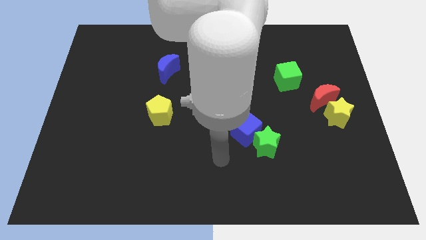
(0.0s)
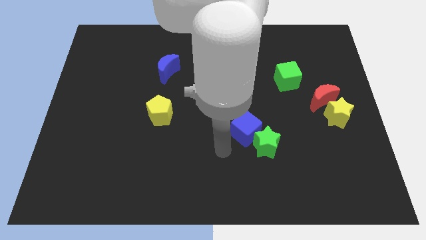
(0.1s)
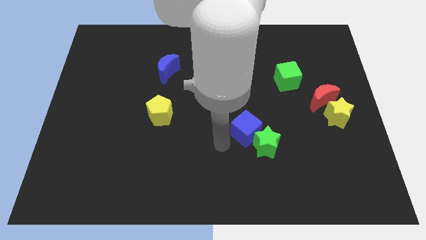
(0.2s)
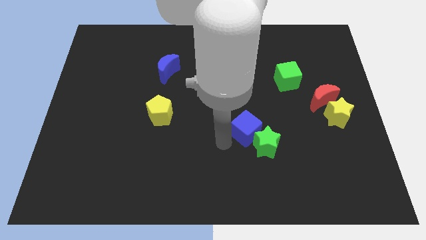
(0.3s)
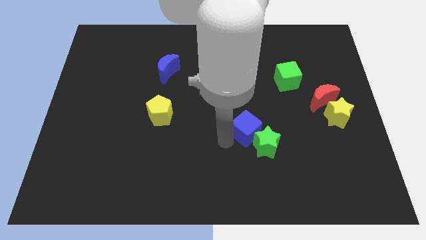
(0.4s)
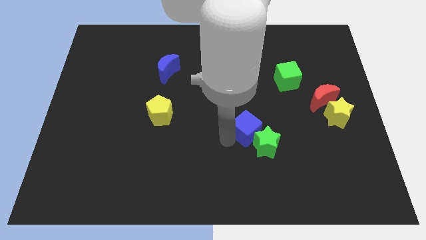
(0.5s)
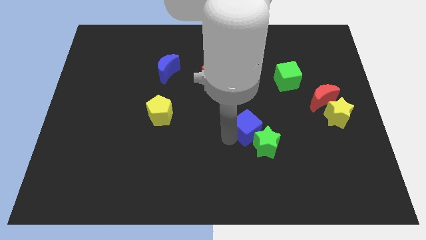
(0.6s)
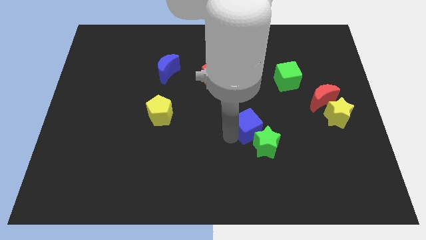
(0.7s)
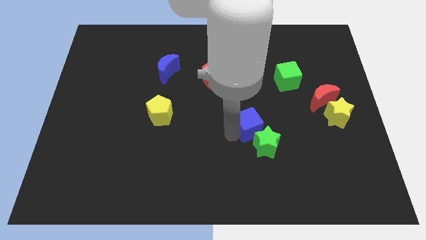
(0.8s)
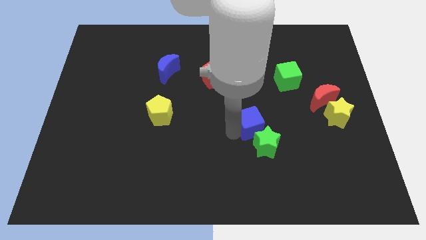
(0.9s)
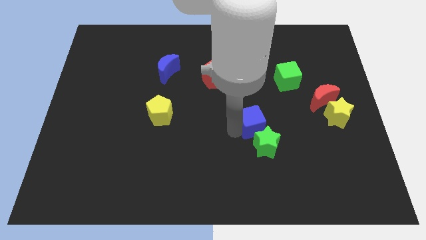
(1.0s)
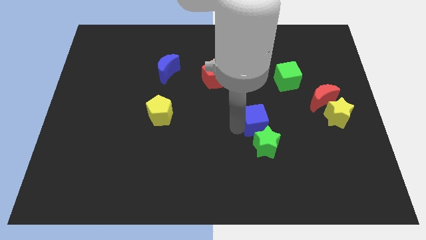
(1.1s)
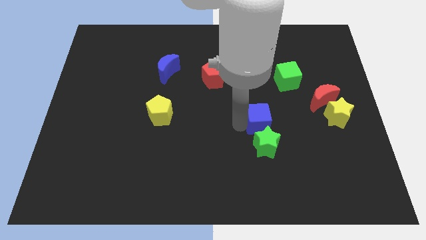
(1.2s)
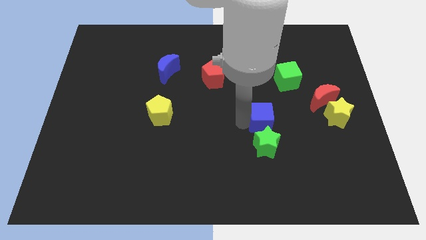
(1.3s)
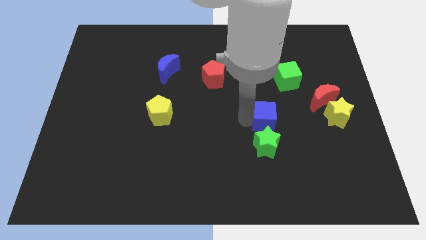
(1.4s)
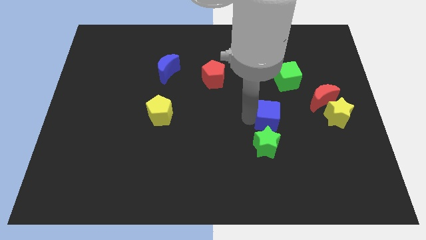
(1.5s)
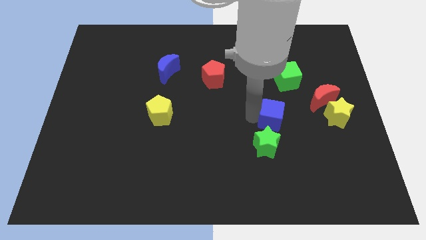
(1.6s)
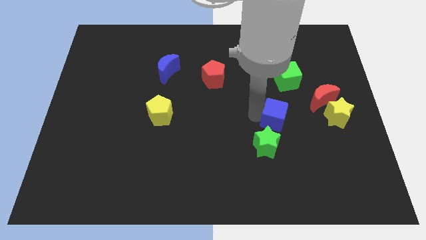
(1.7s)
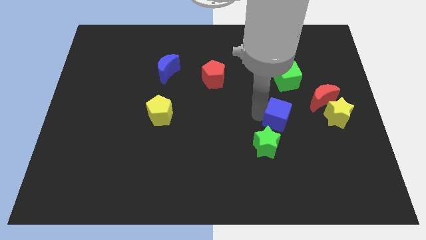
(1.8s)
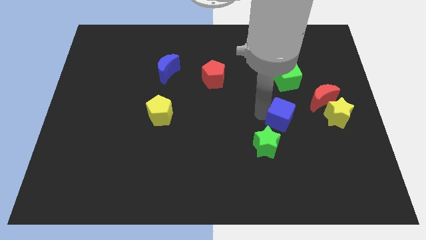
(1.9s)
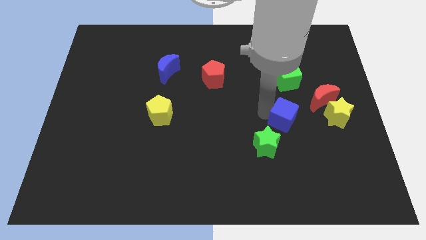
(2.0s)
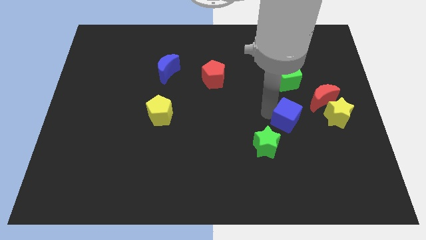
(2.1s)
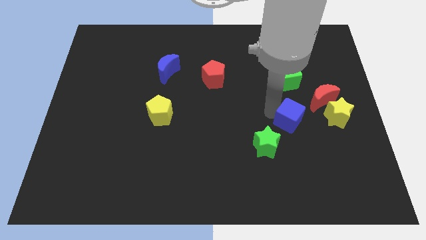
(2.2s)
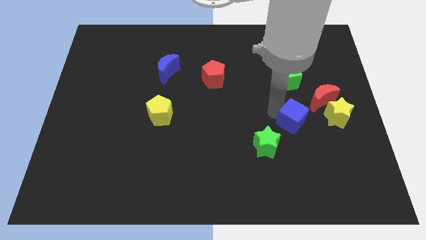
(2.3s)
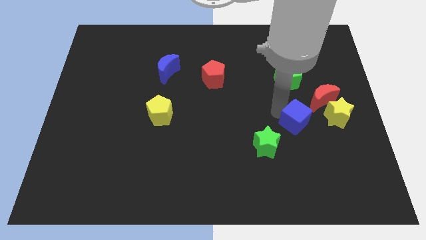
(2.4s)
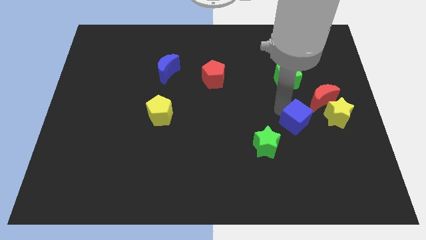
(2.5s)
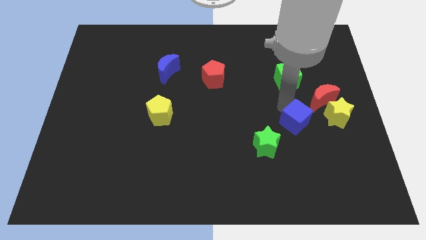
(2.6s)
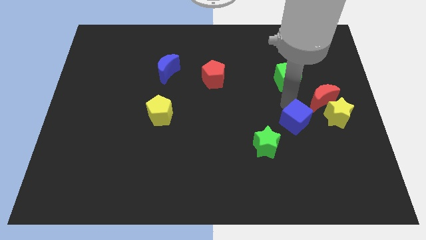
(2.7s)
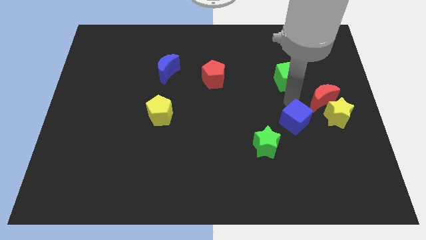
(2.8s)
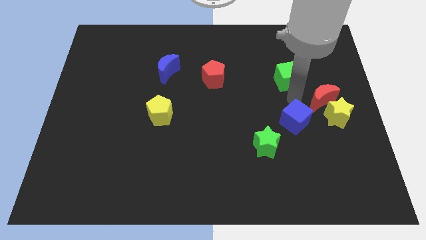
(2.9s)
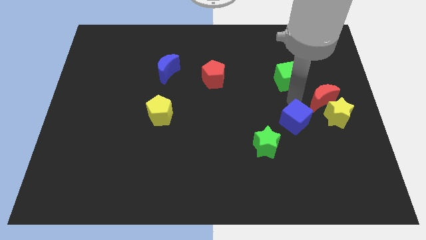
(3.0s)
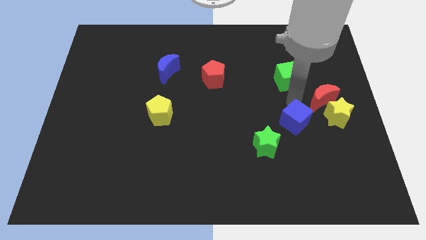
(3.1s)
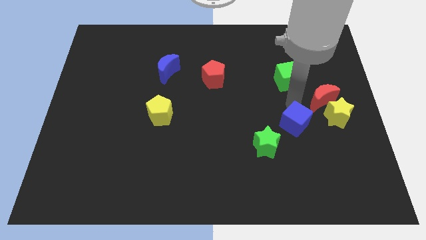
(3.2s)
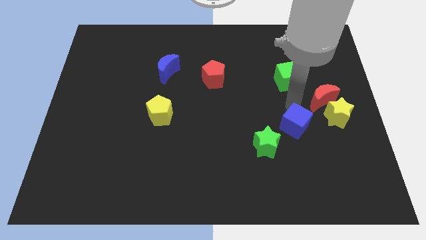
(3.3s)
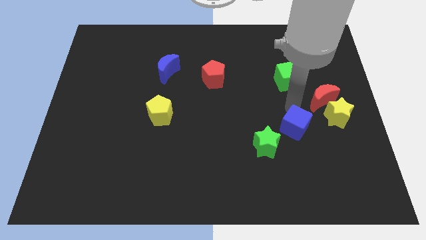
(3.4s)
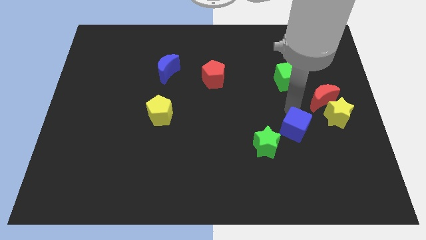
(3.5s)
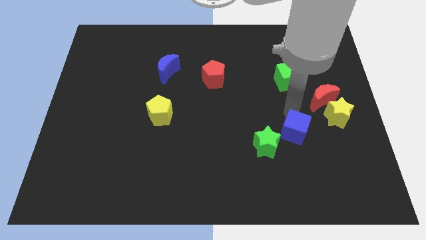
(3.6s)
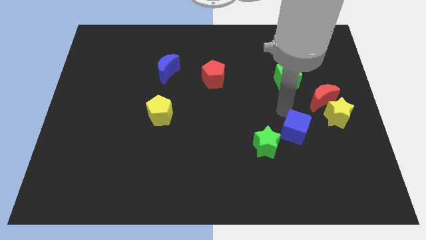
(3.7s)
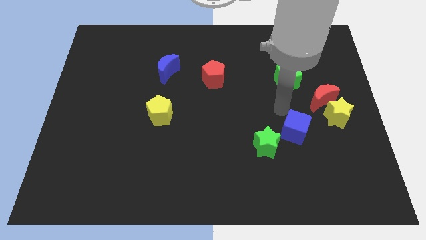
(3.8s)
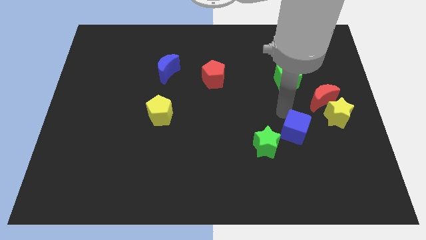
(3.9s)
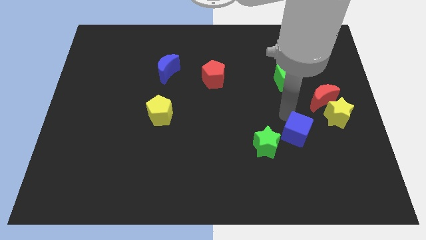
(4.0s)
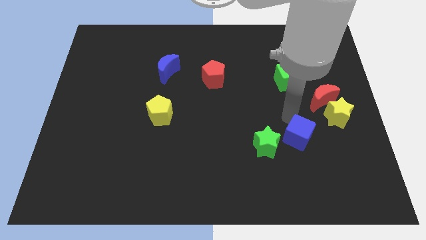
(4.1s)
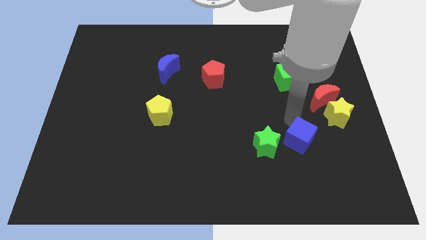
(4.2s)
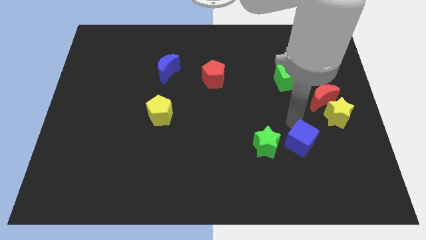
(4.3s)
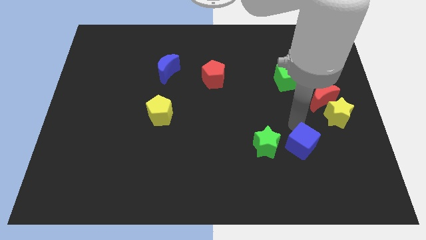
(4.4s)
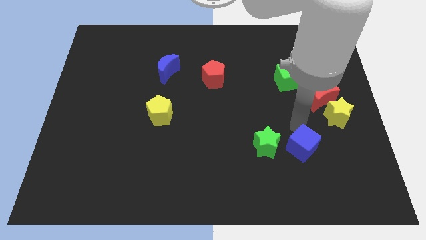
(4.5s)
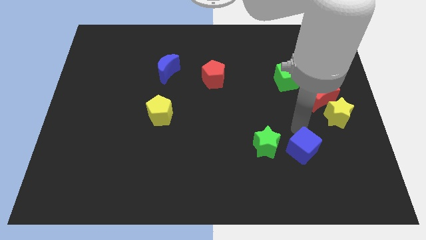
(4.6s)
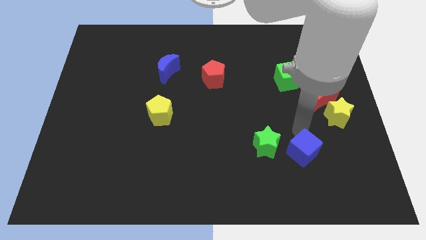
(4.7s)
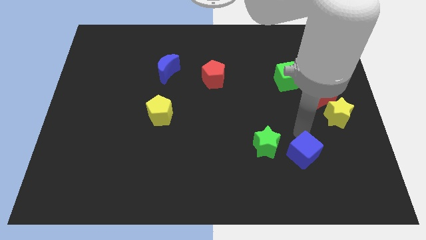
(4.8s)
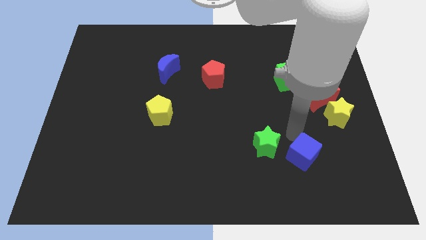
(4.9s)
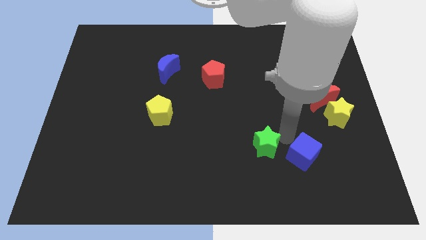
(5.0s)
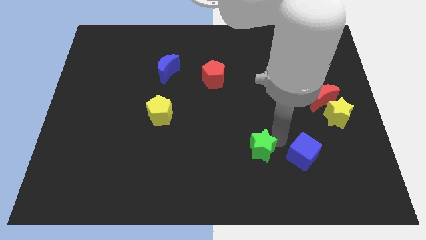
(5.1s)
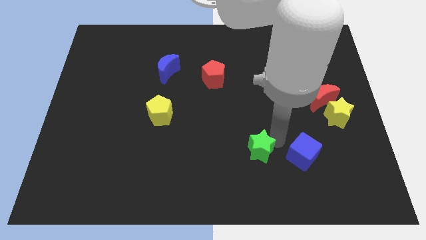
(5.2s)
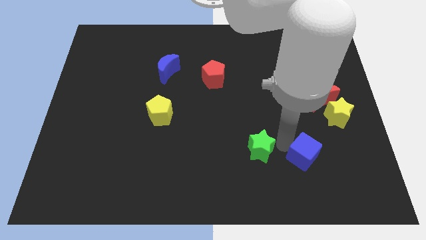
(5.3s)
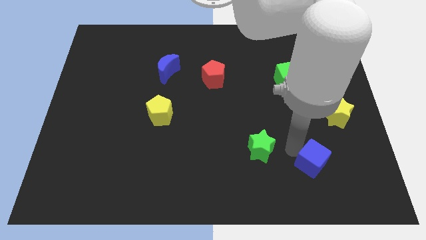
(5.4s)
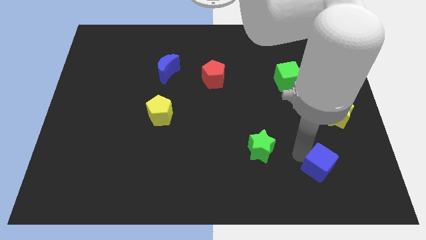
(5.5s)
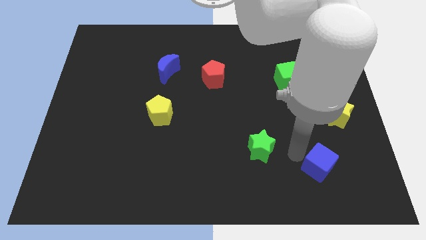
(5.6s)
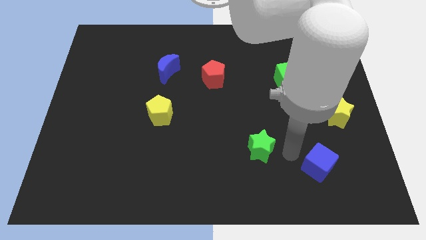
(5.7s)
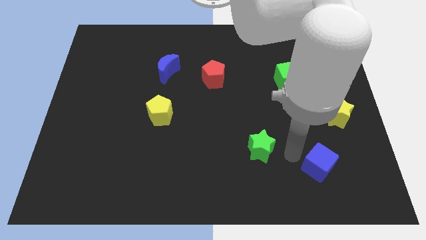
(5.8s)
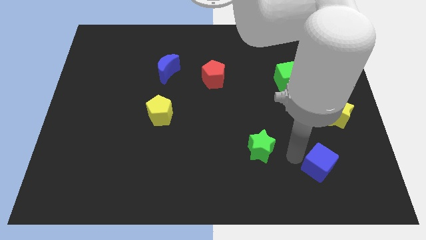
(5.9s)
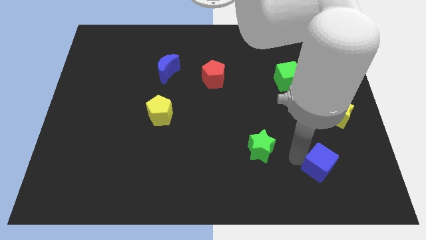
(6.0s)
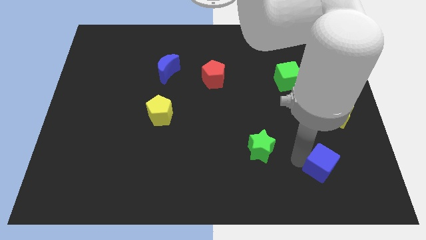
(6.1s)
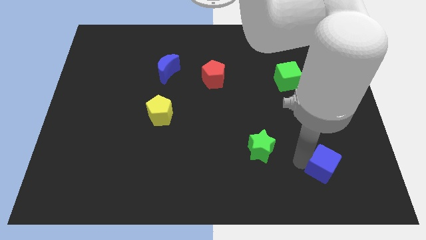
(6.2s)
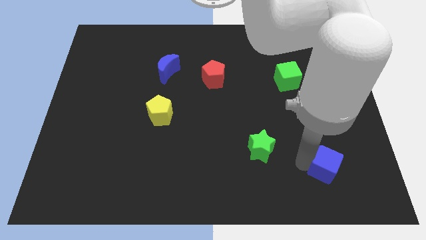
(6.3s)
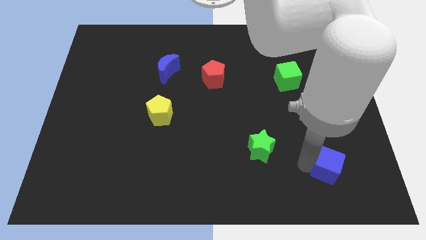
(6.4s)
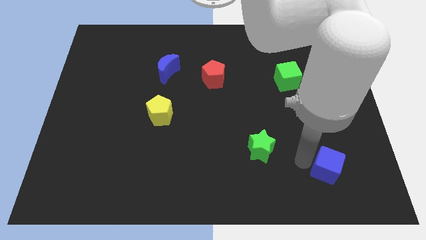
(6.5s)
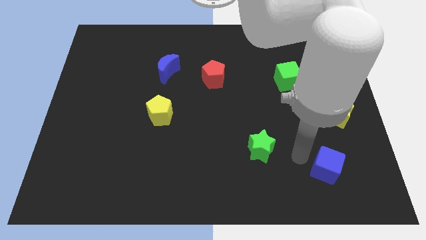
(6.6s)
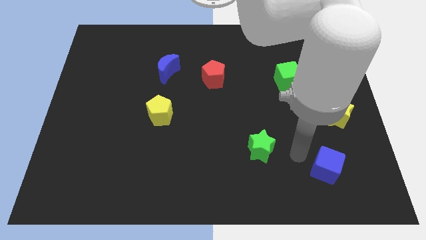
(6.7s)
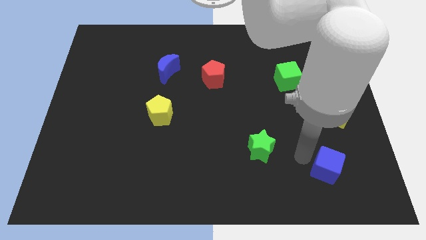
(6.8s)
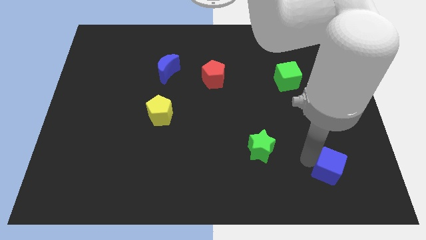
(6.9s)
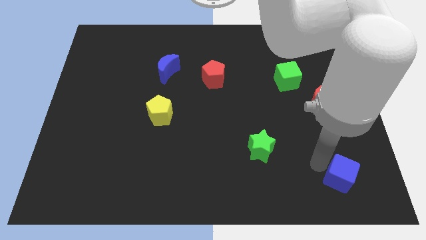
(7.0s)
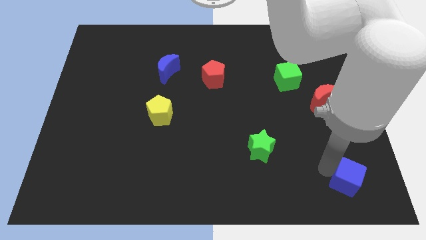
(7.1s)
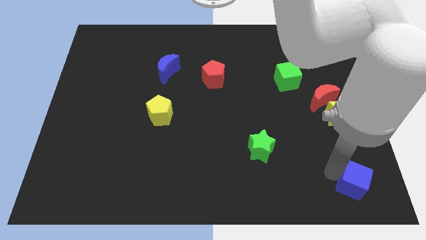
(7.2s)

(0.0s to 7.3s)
slide the blue cube to the bottom right

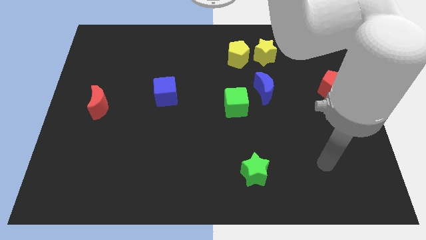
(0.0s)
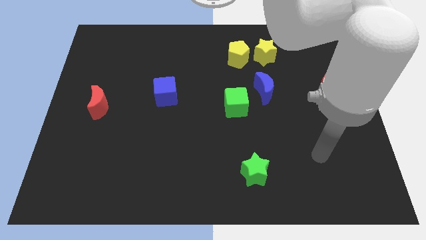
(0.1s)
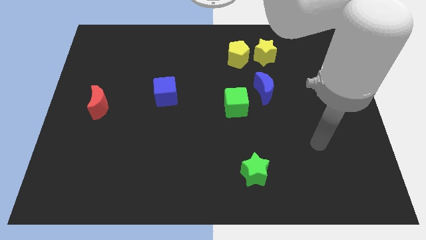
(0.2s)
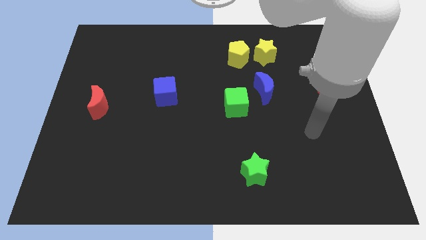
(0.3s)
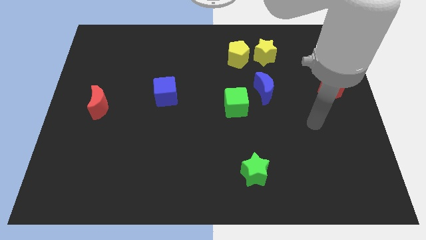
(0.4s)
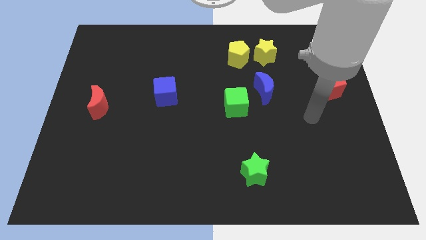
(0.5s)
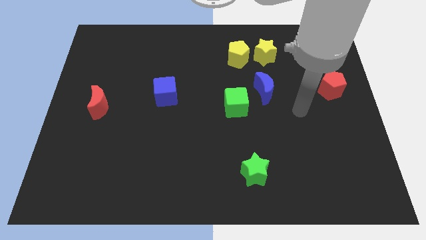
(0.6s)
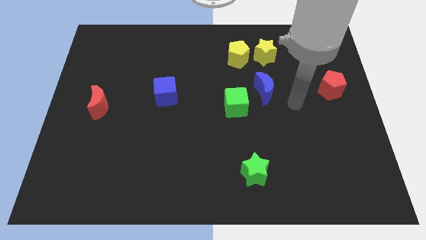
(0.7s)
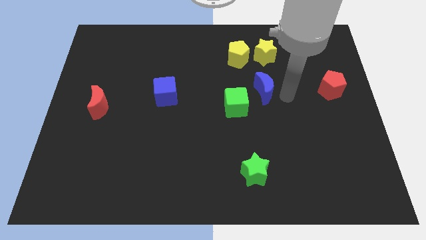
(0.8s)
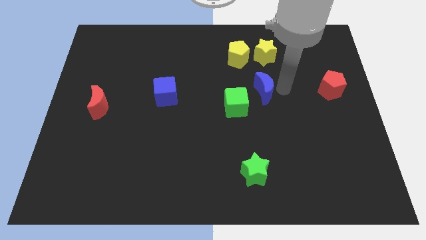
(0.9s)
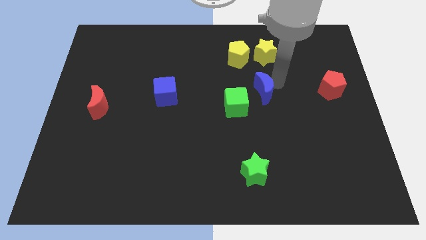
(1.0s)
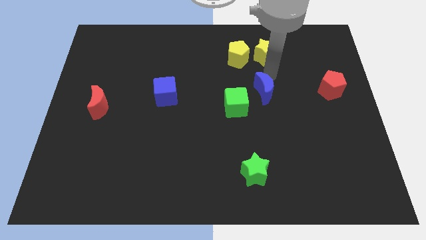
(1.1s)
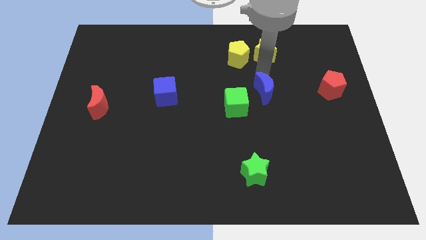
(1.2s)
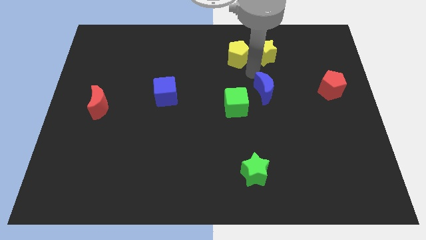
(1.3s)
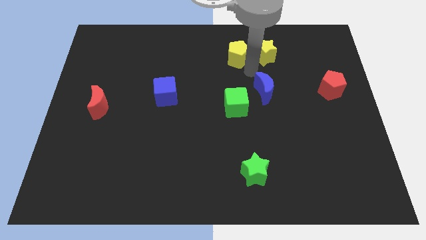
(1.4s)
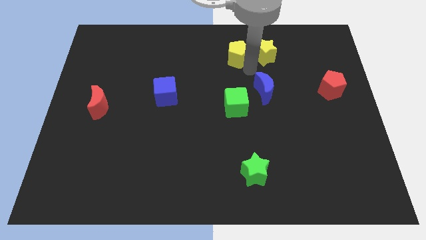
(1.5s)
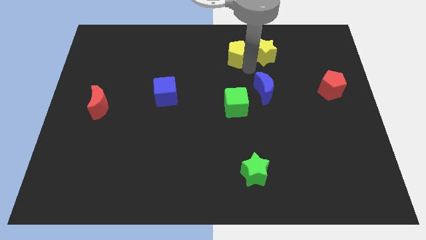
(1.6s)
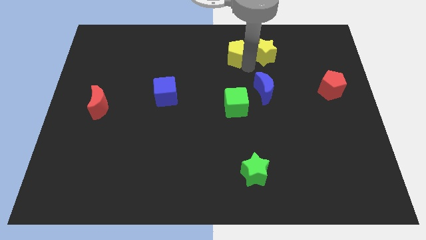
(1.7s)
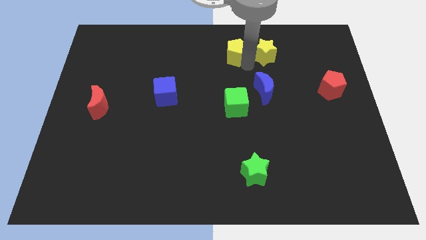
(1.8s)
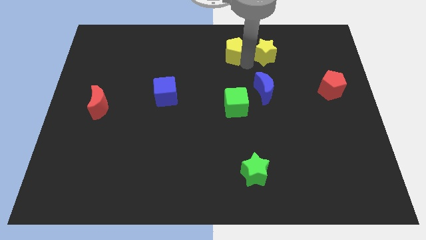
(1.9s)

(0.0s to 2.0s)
move the yellow pentagon to the top side
